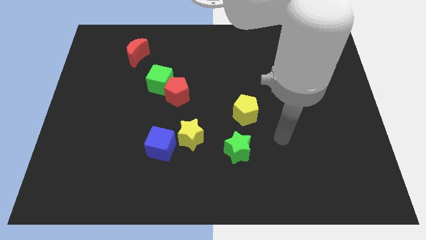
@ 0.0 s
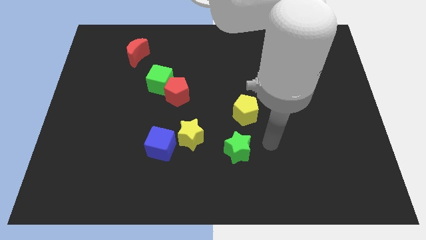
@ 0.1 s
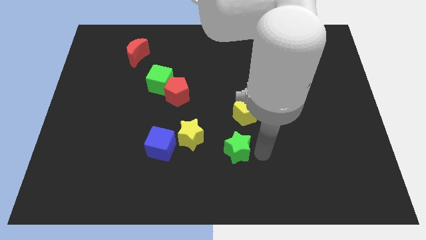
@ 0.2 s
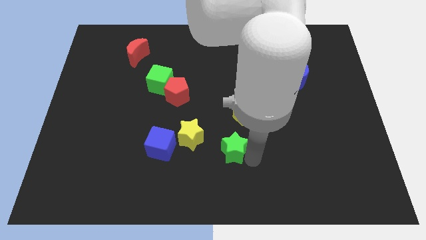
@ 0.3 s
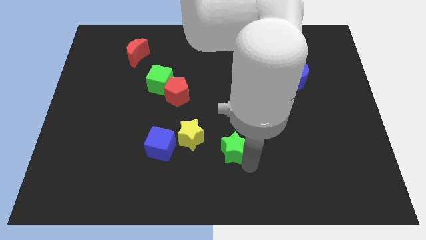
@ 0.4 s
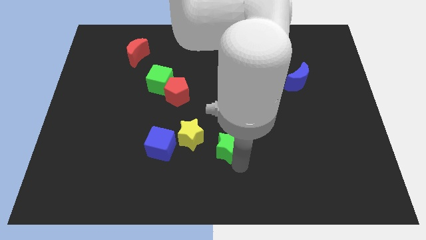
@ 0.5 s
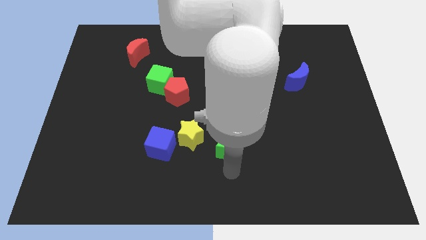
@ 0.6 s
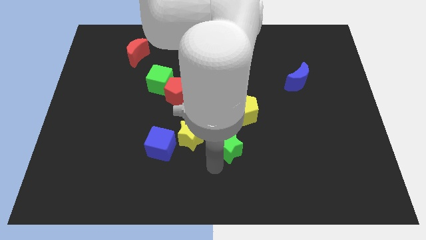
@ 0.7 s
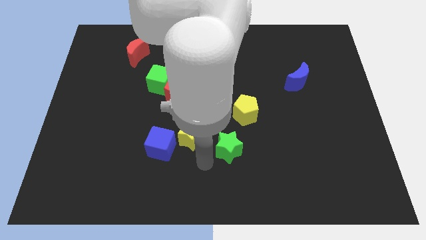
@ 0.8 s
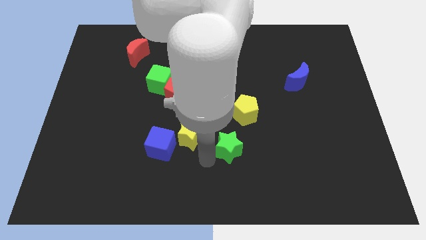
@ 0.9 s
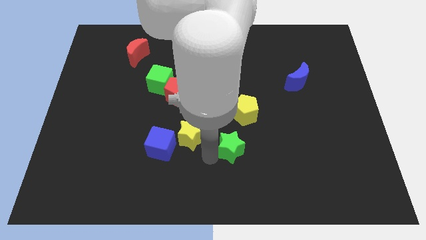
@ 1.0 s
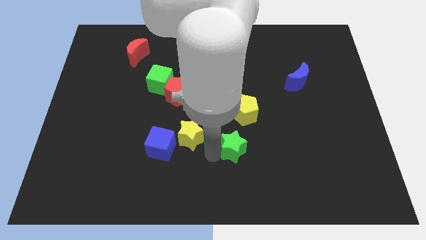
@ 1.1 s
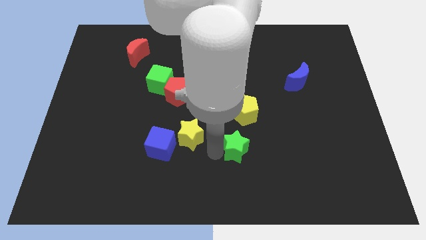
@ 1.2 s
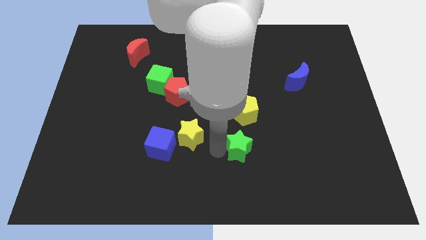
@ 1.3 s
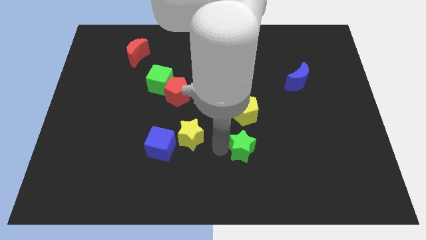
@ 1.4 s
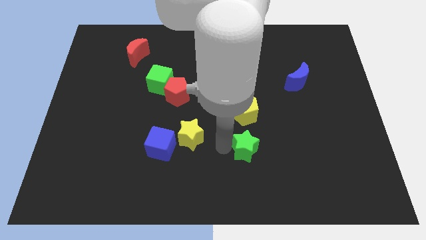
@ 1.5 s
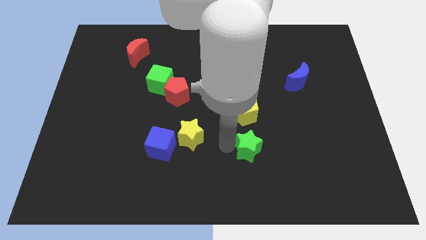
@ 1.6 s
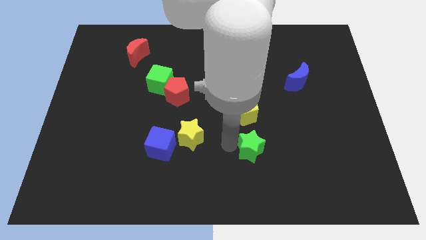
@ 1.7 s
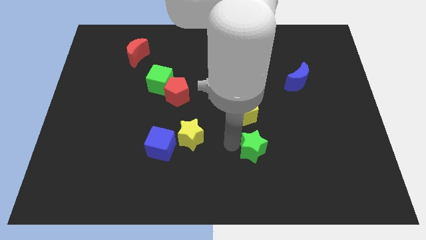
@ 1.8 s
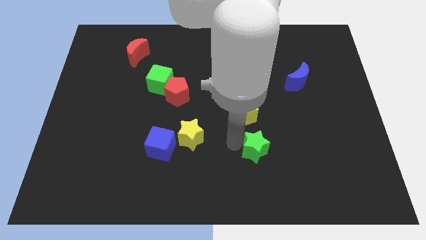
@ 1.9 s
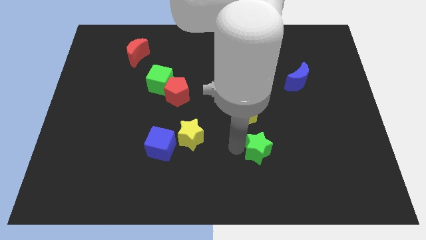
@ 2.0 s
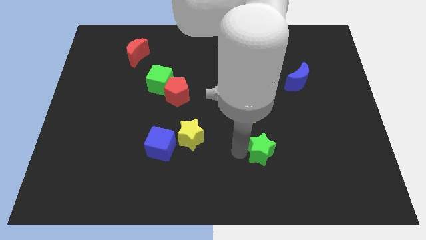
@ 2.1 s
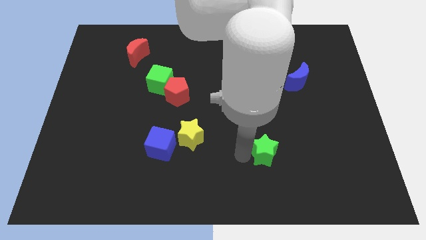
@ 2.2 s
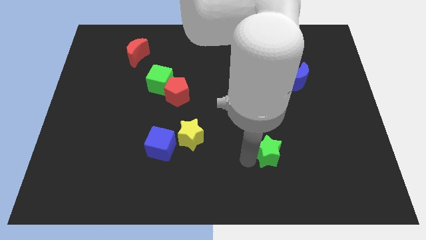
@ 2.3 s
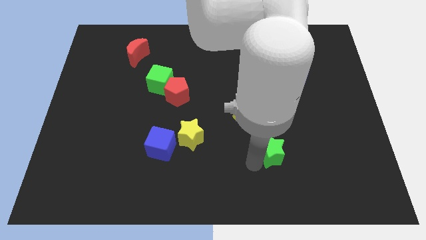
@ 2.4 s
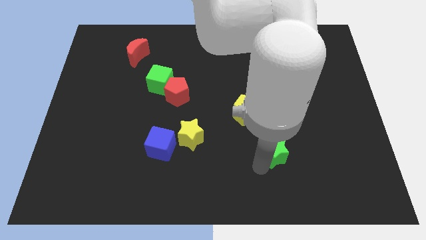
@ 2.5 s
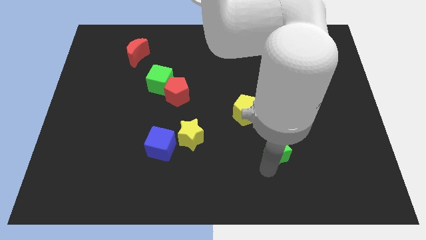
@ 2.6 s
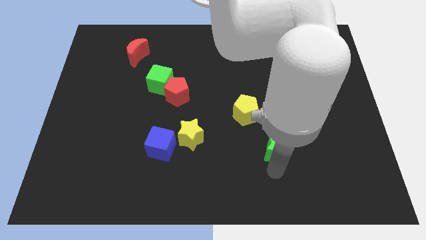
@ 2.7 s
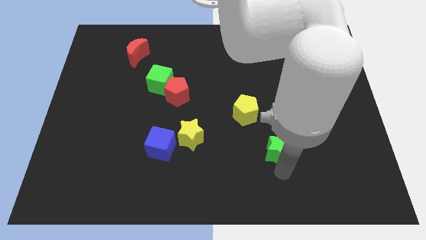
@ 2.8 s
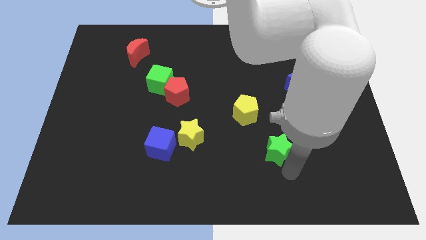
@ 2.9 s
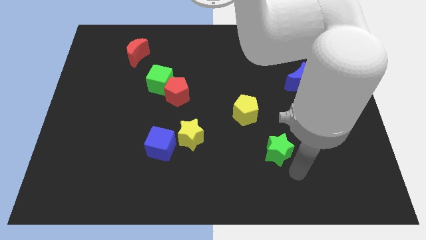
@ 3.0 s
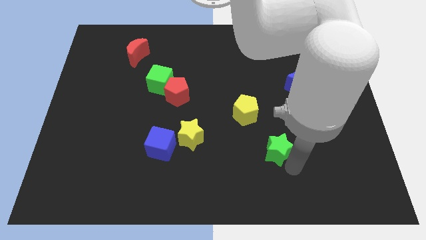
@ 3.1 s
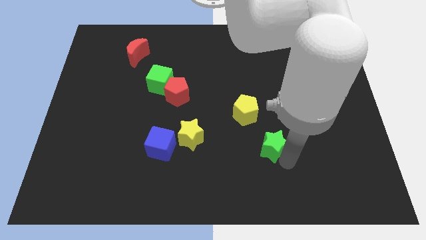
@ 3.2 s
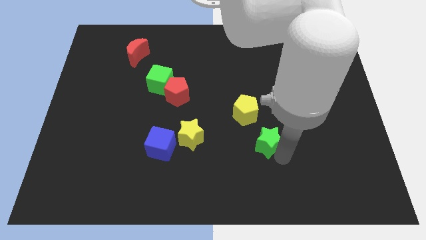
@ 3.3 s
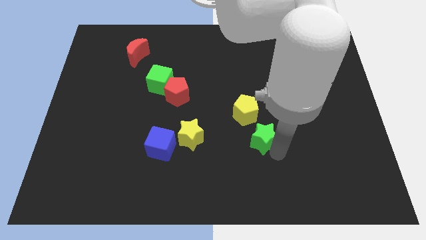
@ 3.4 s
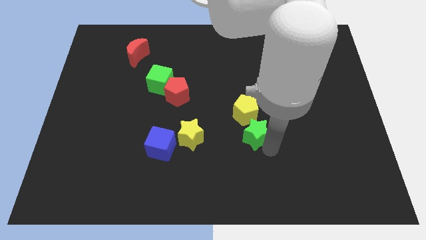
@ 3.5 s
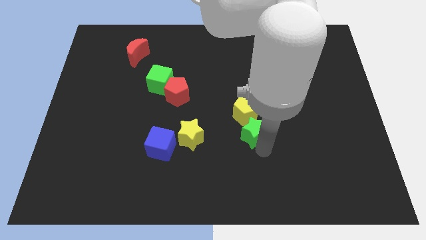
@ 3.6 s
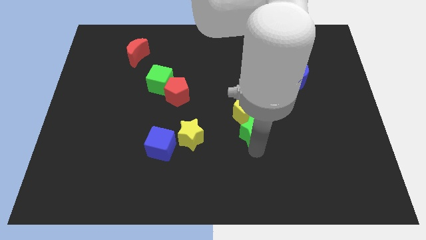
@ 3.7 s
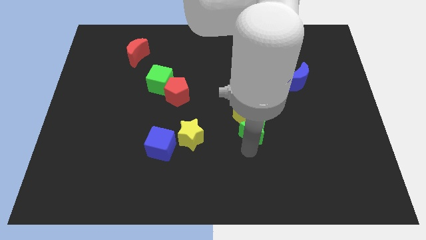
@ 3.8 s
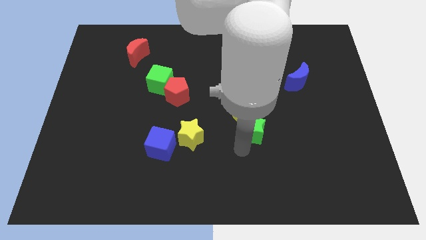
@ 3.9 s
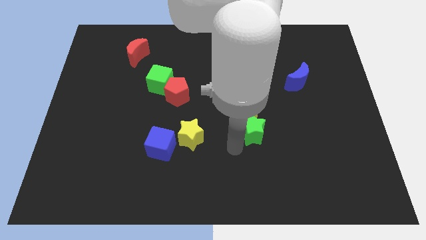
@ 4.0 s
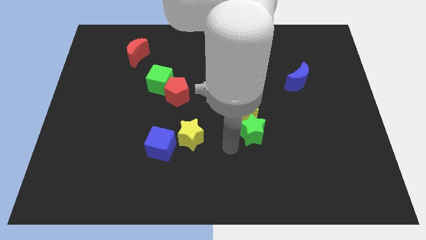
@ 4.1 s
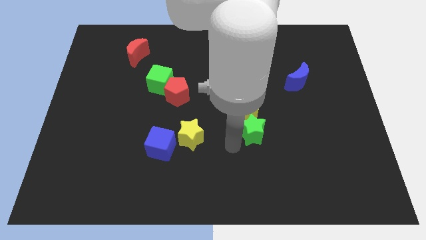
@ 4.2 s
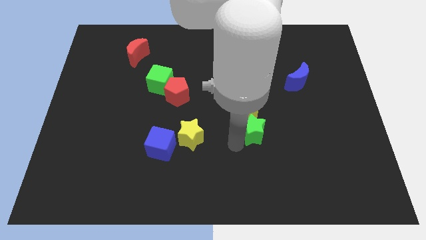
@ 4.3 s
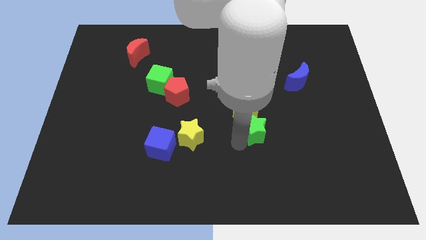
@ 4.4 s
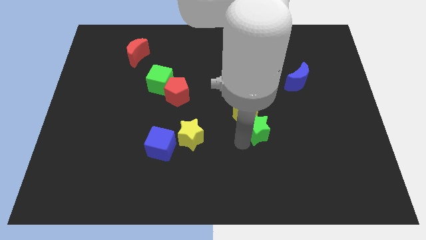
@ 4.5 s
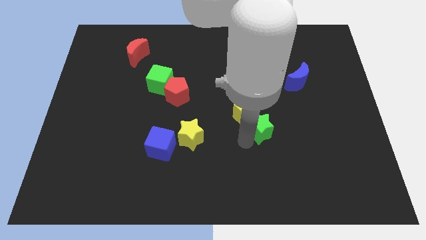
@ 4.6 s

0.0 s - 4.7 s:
push the green star up and right diagonally a little

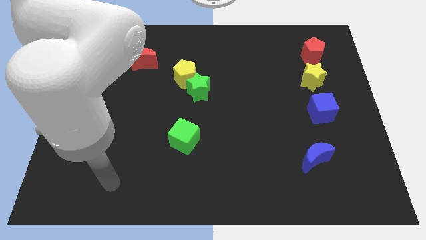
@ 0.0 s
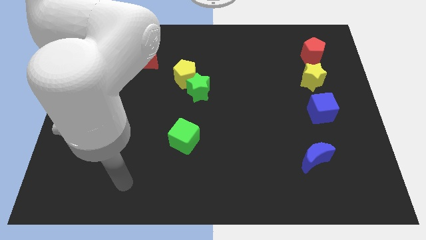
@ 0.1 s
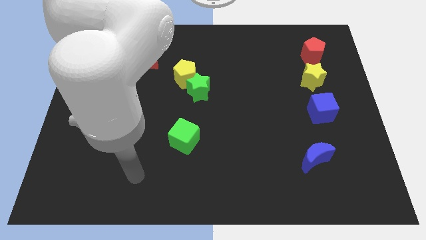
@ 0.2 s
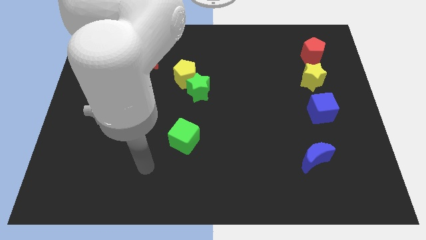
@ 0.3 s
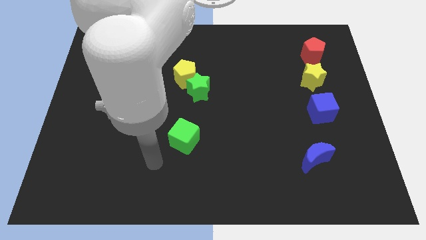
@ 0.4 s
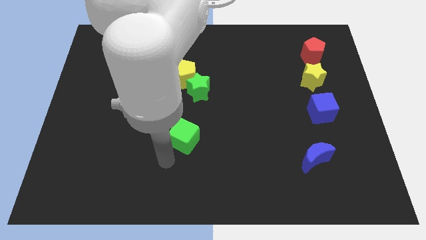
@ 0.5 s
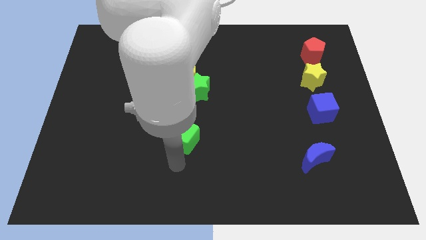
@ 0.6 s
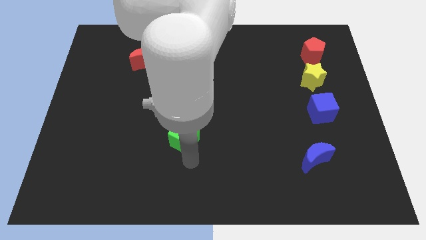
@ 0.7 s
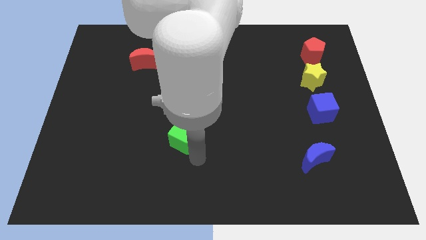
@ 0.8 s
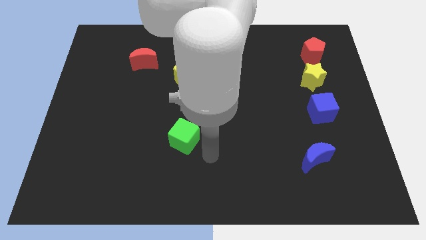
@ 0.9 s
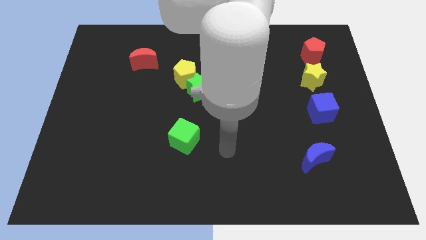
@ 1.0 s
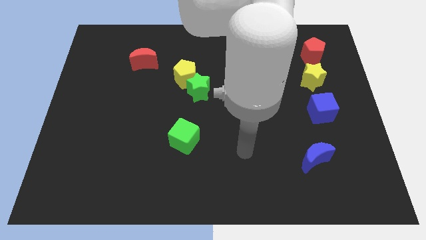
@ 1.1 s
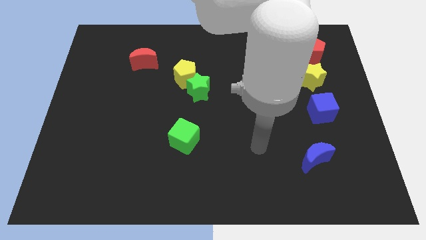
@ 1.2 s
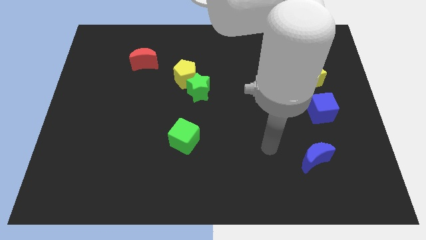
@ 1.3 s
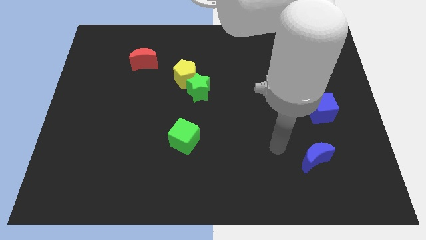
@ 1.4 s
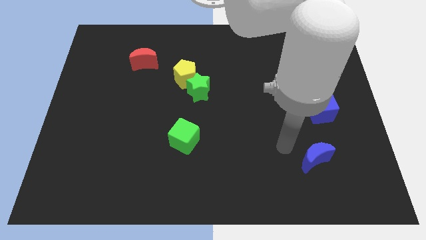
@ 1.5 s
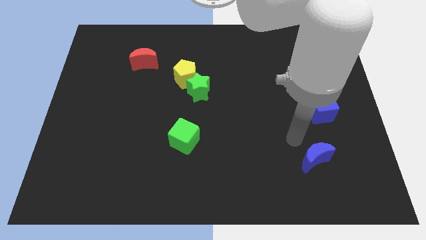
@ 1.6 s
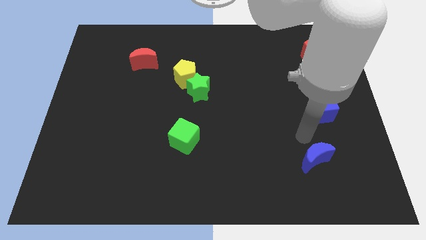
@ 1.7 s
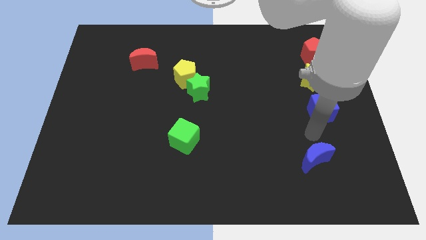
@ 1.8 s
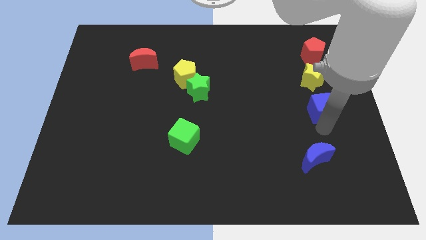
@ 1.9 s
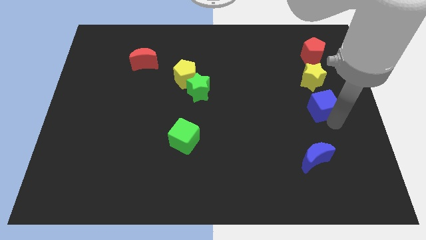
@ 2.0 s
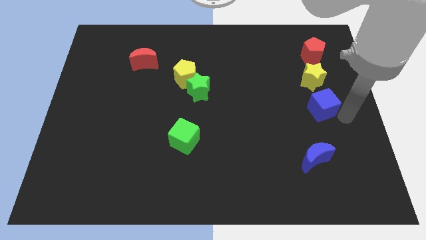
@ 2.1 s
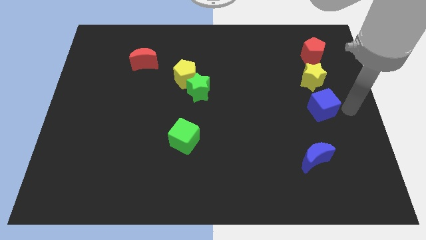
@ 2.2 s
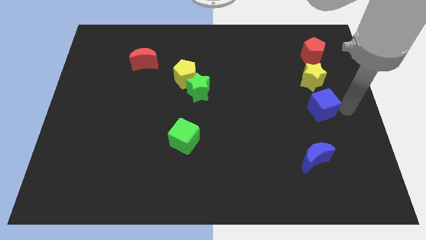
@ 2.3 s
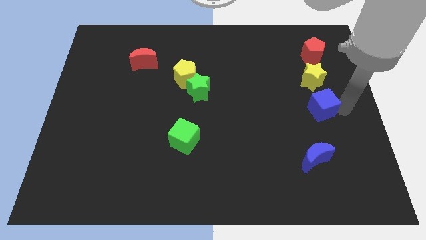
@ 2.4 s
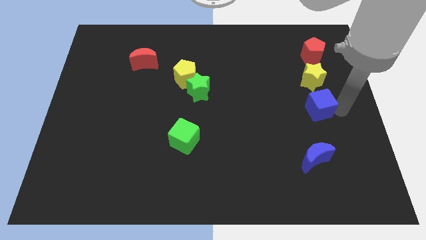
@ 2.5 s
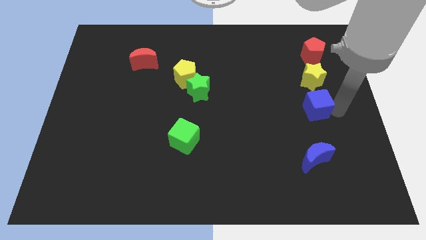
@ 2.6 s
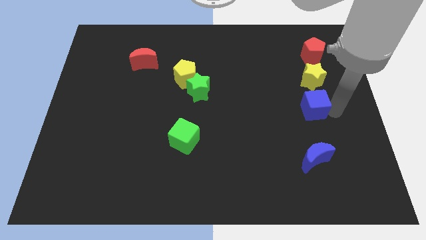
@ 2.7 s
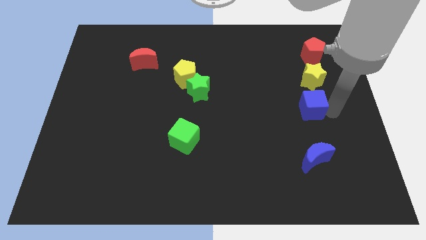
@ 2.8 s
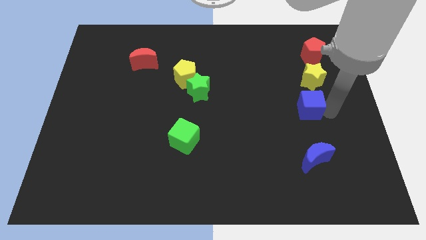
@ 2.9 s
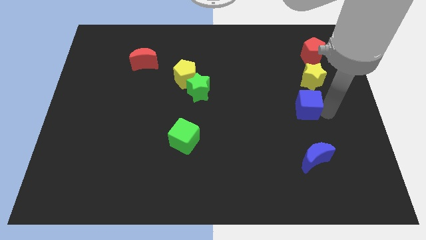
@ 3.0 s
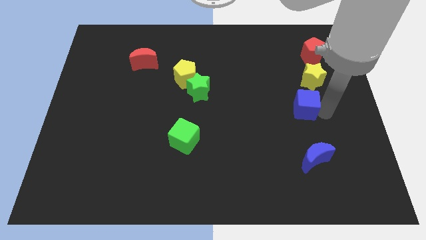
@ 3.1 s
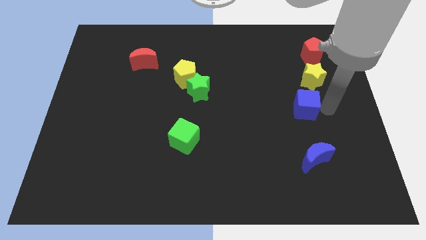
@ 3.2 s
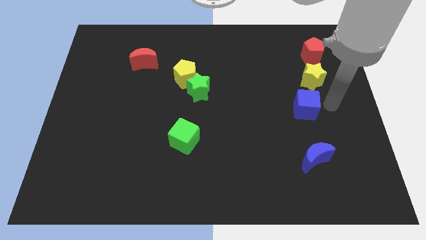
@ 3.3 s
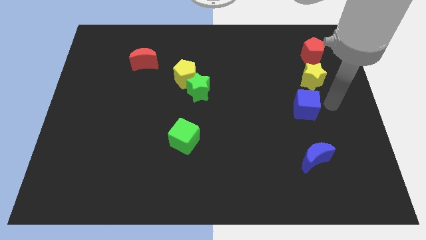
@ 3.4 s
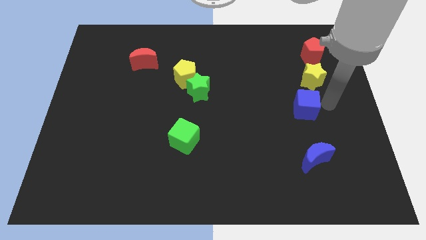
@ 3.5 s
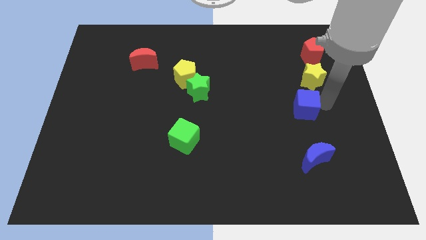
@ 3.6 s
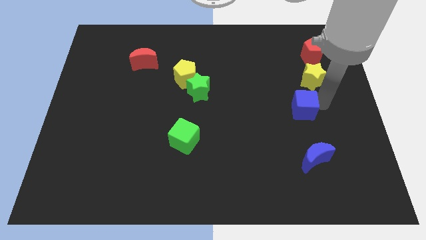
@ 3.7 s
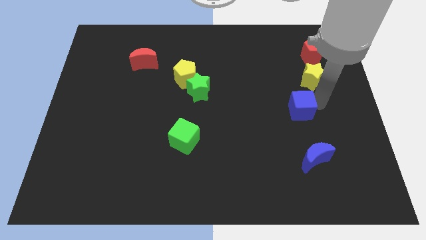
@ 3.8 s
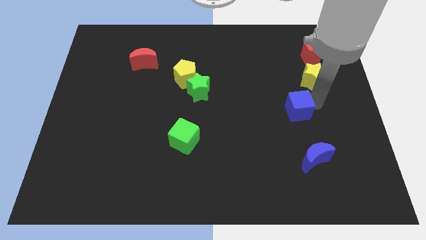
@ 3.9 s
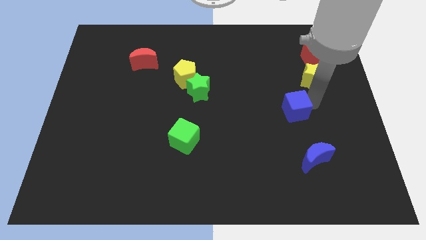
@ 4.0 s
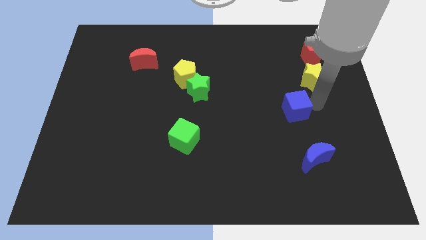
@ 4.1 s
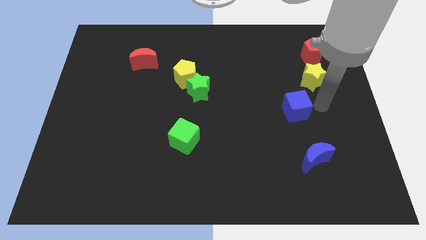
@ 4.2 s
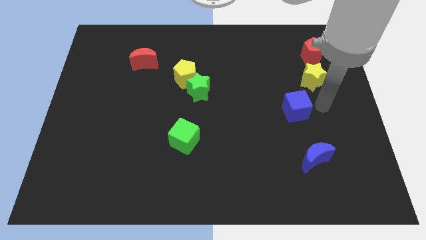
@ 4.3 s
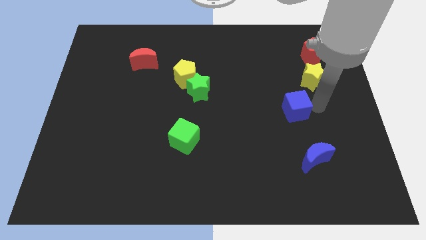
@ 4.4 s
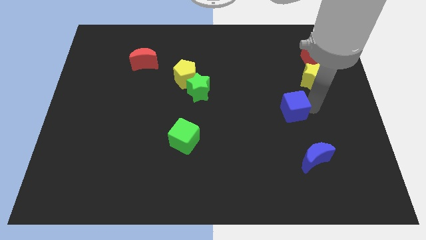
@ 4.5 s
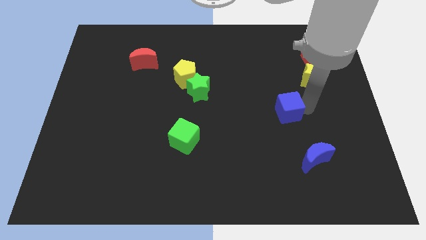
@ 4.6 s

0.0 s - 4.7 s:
move the blue cube left a bit
